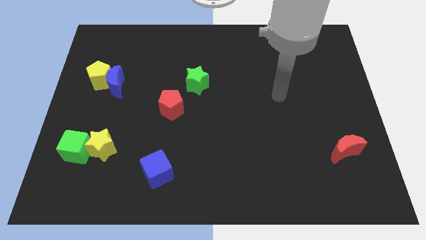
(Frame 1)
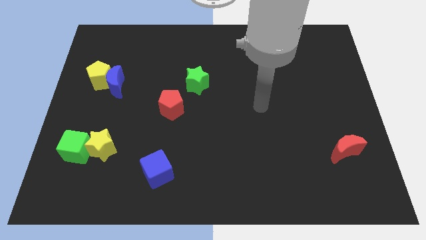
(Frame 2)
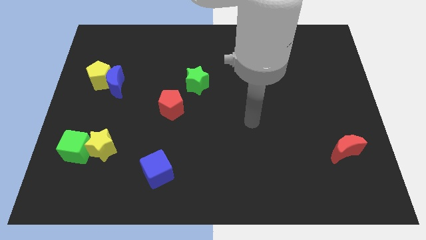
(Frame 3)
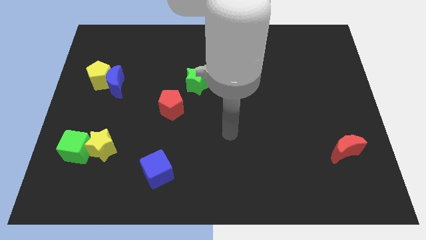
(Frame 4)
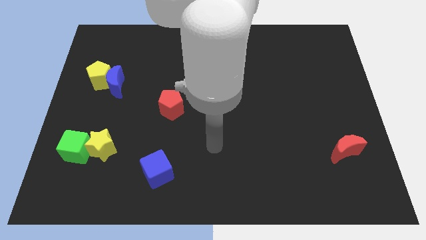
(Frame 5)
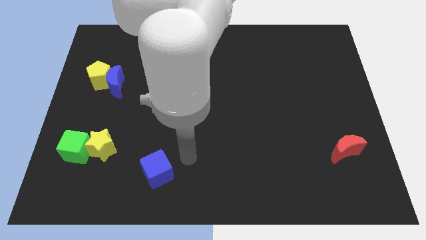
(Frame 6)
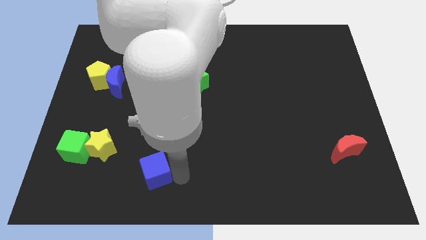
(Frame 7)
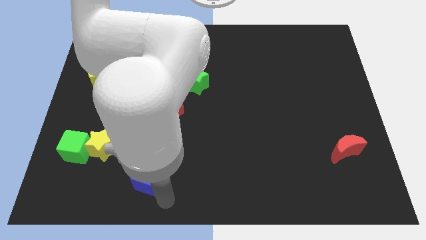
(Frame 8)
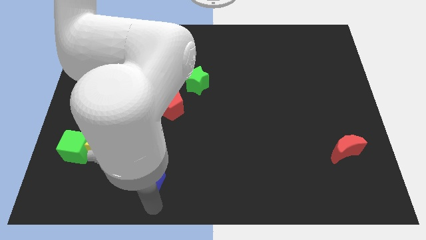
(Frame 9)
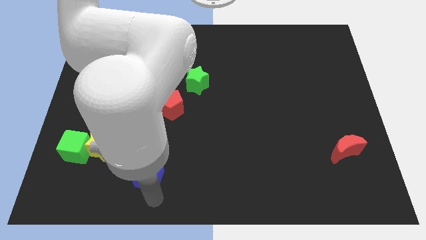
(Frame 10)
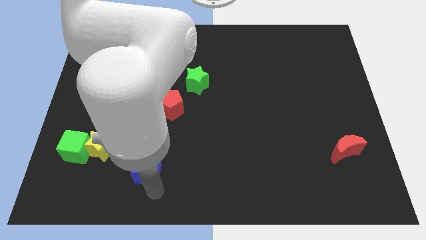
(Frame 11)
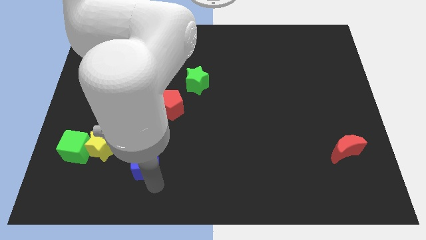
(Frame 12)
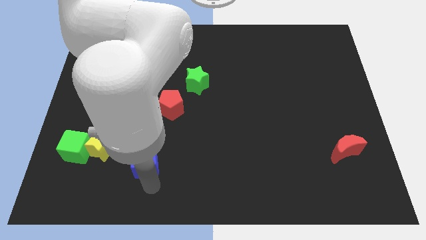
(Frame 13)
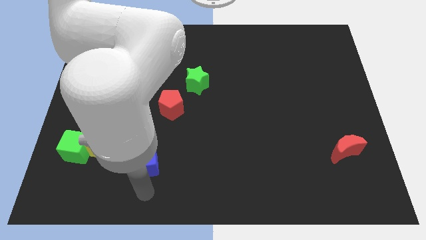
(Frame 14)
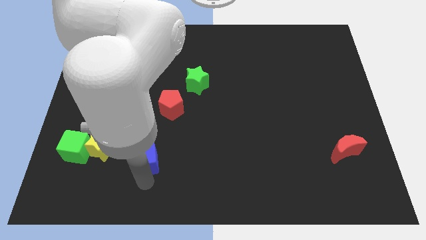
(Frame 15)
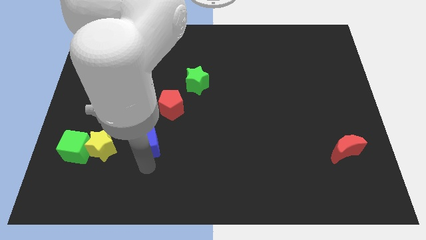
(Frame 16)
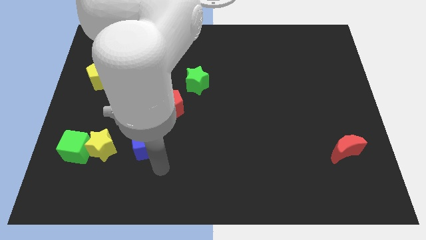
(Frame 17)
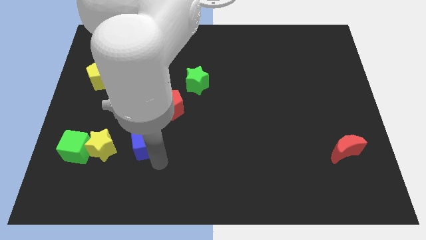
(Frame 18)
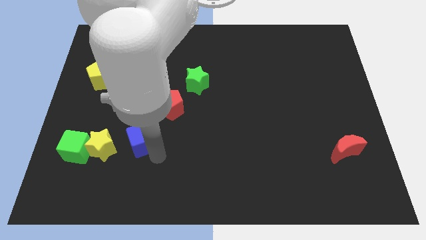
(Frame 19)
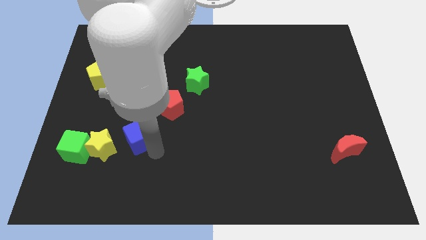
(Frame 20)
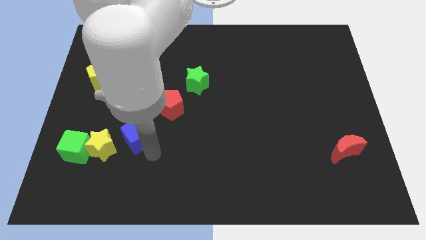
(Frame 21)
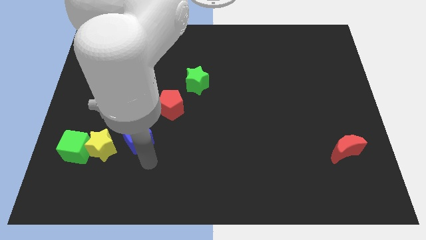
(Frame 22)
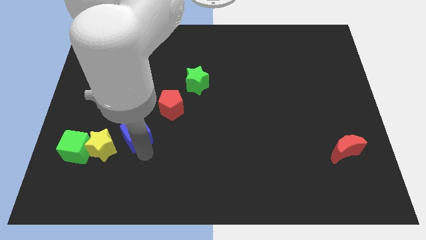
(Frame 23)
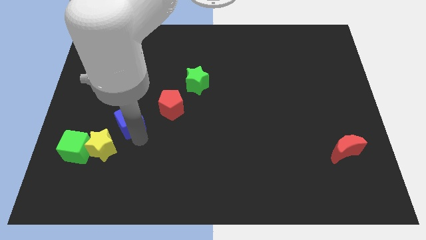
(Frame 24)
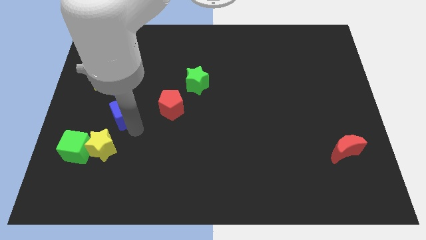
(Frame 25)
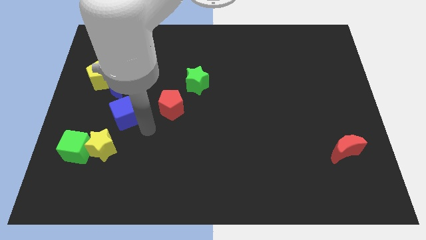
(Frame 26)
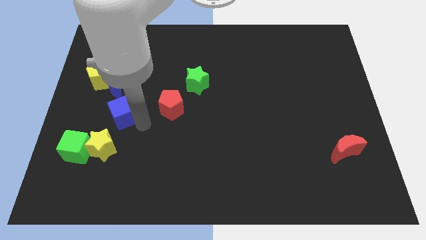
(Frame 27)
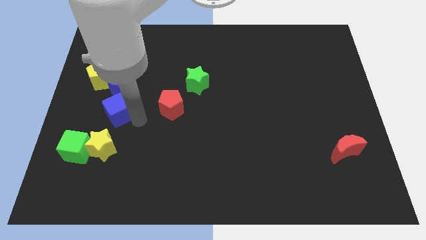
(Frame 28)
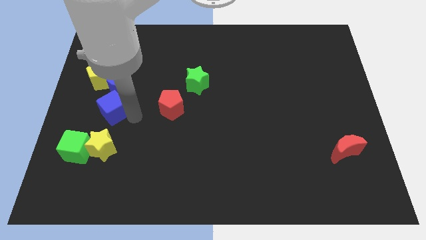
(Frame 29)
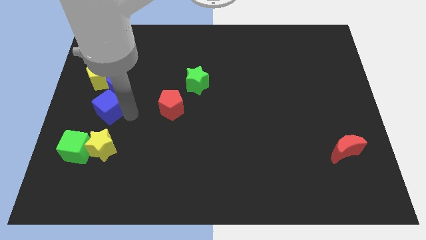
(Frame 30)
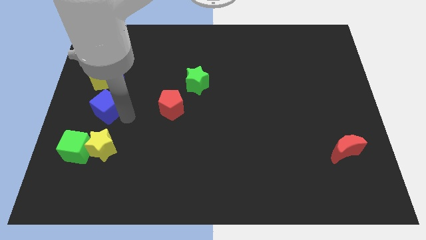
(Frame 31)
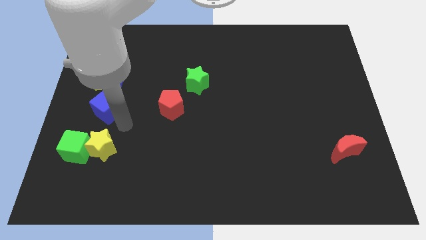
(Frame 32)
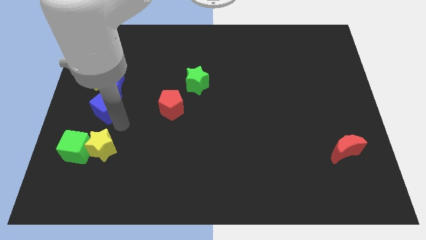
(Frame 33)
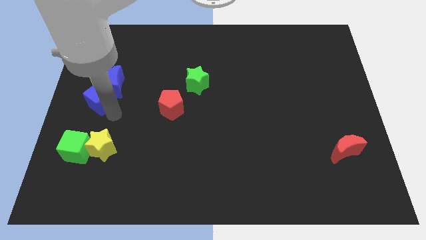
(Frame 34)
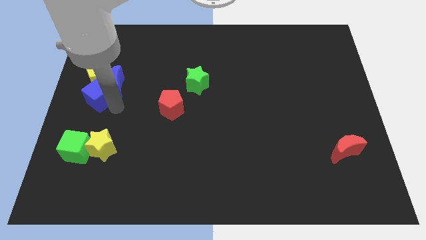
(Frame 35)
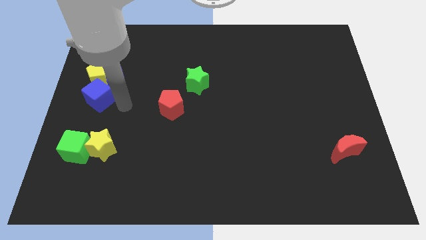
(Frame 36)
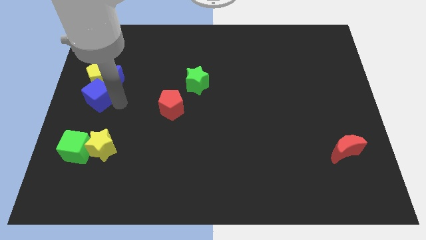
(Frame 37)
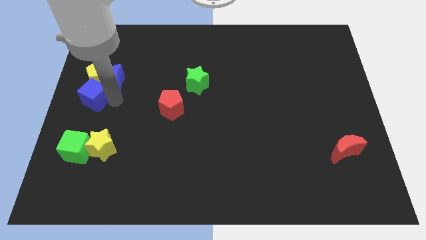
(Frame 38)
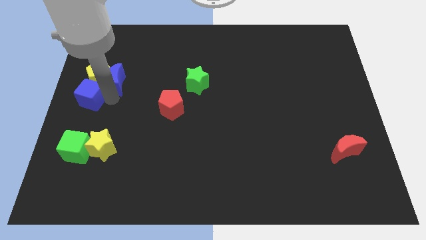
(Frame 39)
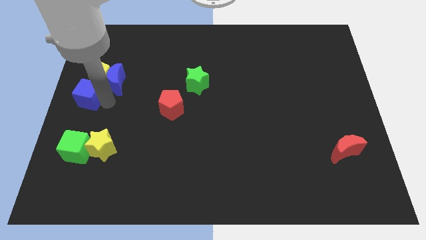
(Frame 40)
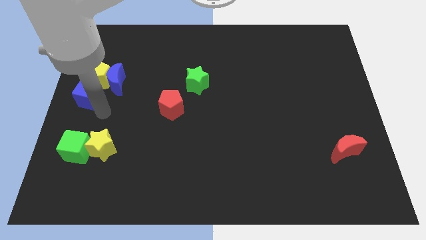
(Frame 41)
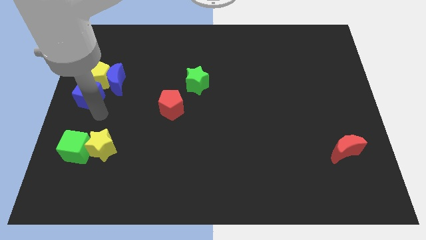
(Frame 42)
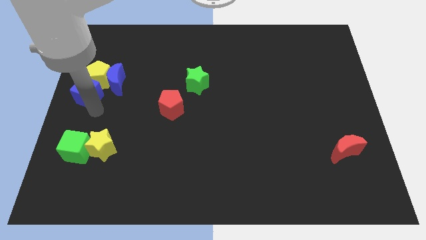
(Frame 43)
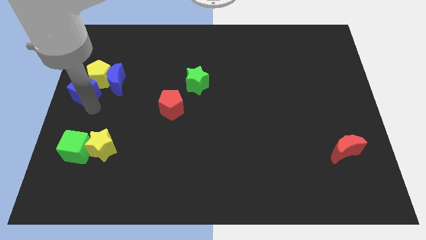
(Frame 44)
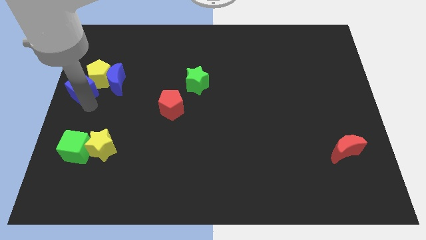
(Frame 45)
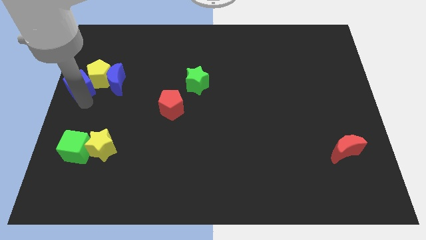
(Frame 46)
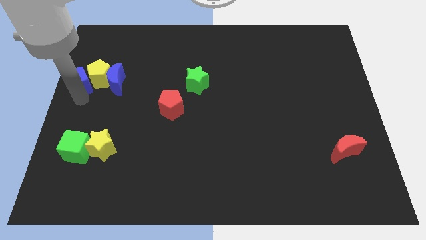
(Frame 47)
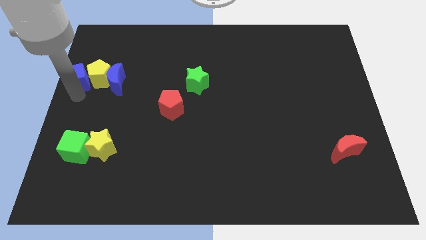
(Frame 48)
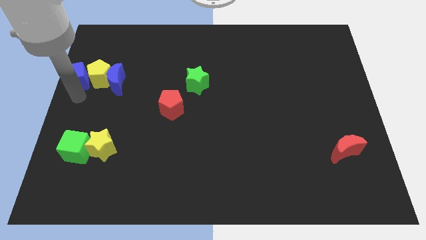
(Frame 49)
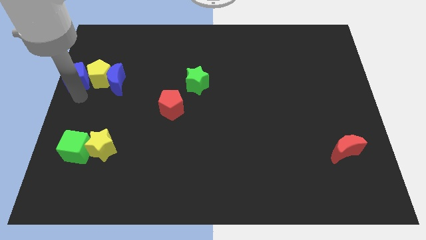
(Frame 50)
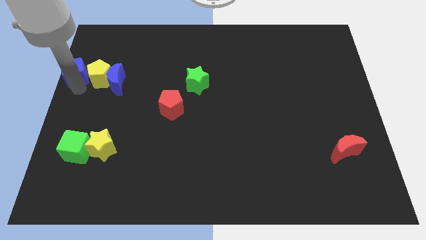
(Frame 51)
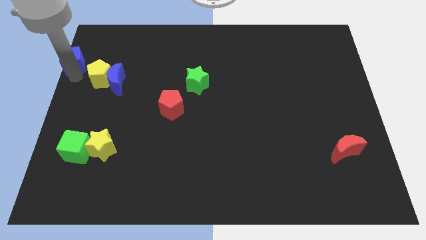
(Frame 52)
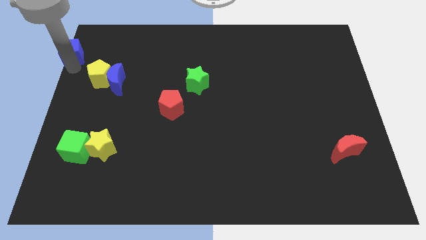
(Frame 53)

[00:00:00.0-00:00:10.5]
slide the blue cube to the top left corner

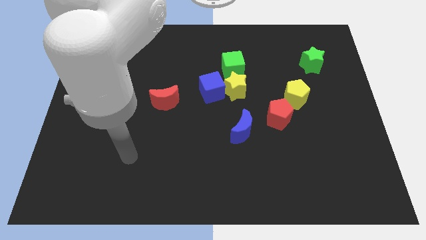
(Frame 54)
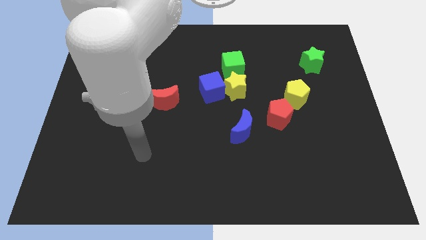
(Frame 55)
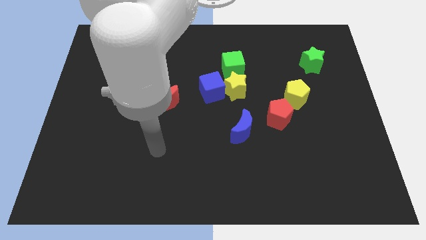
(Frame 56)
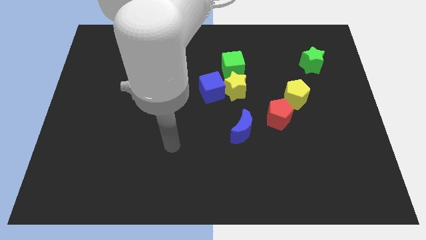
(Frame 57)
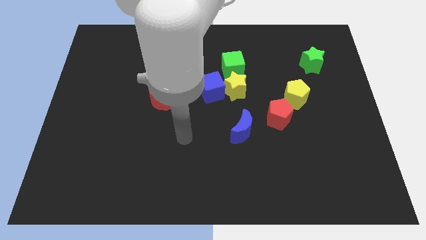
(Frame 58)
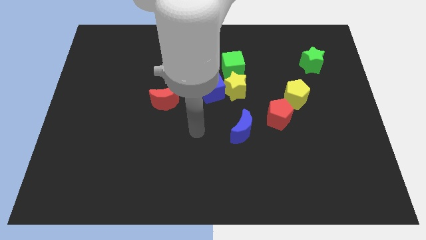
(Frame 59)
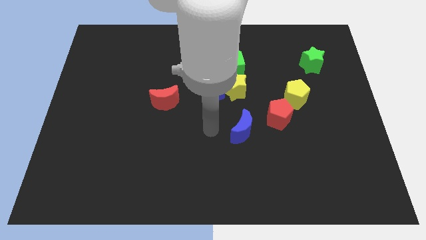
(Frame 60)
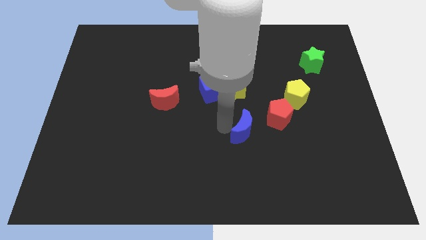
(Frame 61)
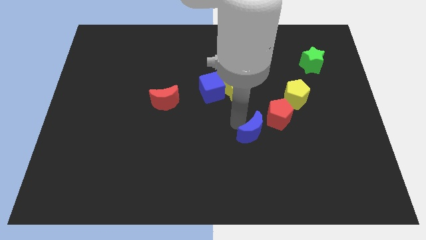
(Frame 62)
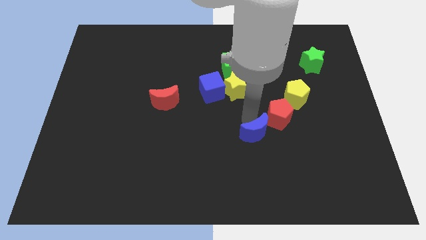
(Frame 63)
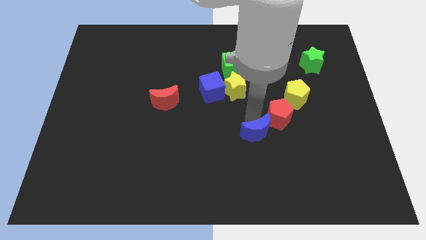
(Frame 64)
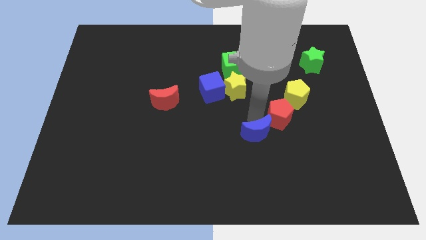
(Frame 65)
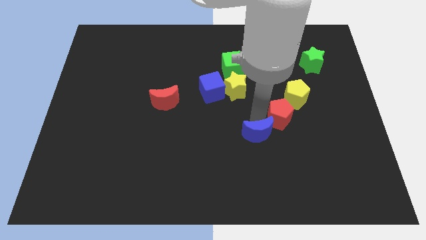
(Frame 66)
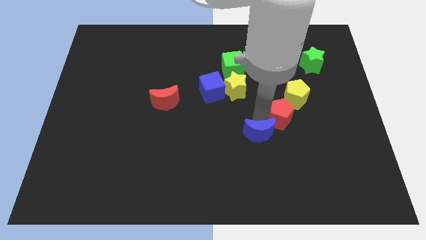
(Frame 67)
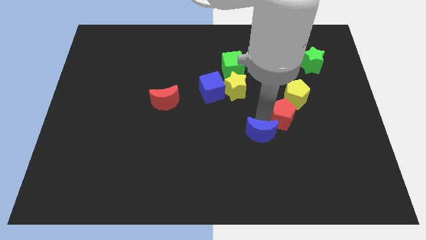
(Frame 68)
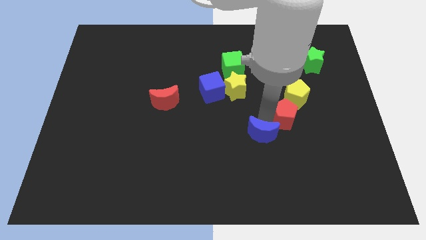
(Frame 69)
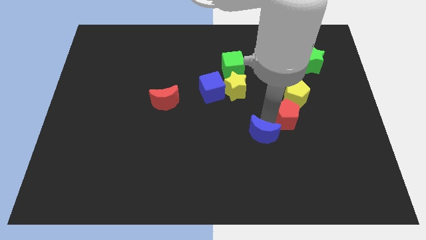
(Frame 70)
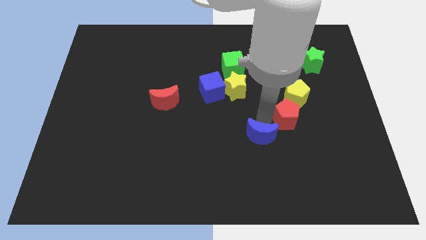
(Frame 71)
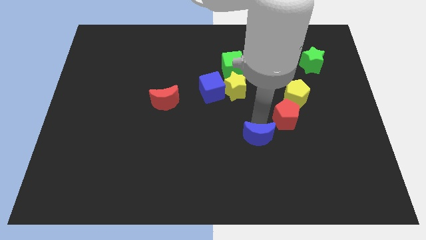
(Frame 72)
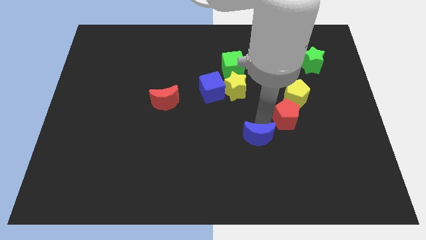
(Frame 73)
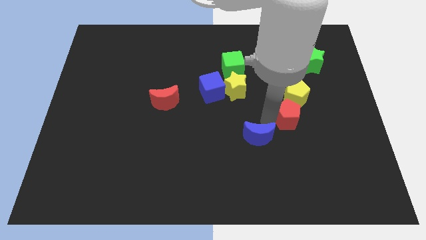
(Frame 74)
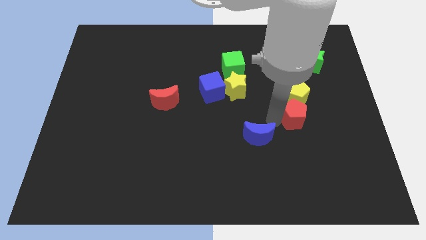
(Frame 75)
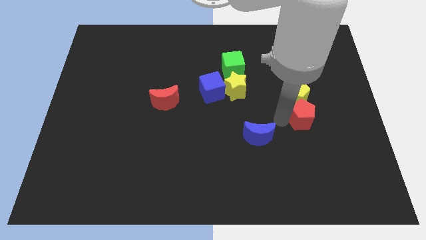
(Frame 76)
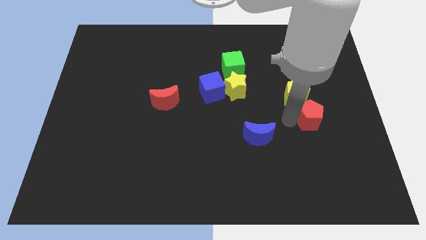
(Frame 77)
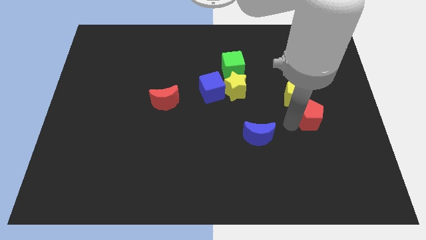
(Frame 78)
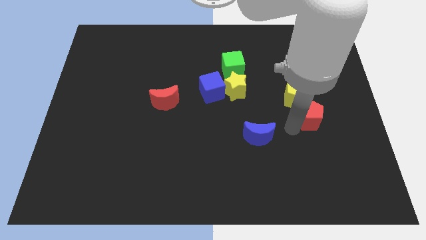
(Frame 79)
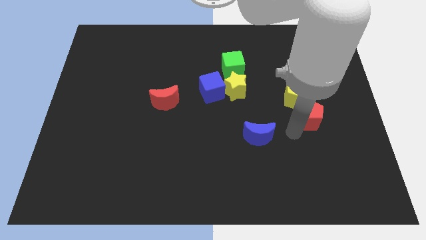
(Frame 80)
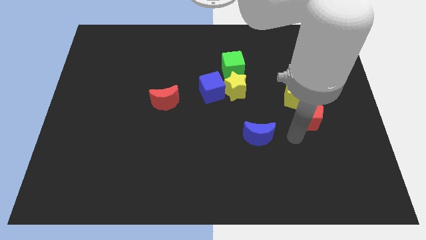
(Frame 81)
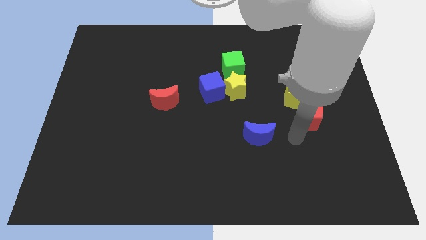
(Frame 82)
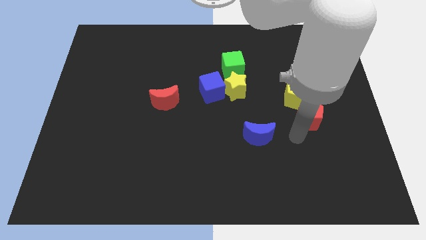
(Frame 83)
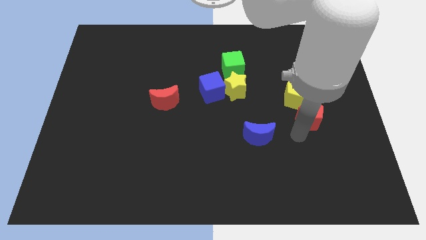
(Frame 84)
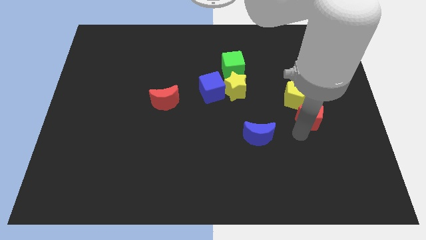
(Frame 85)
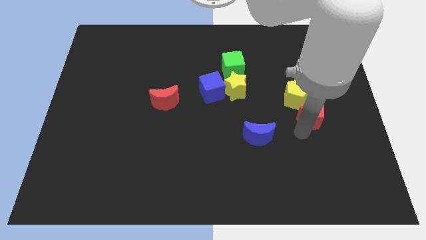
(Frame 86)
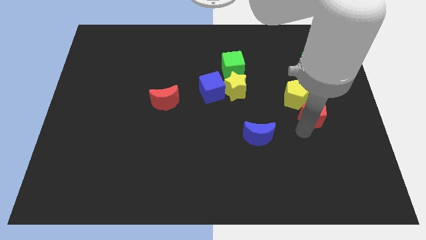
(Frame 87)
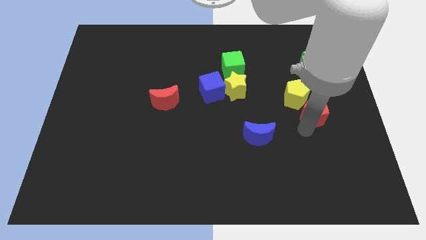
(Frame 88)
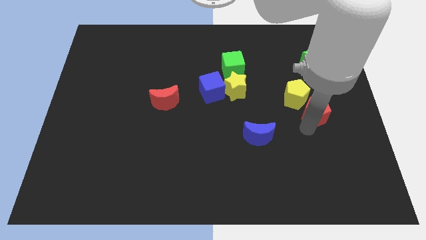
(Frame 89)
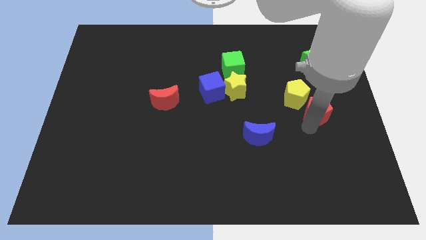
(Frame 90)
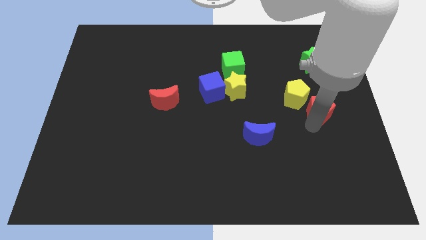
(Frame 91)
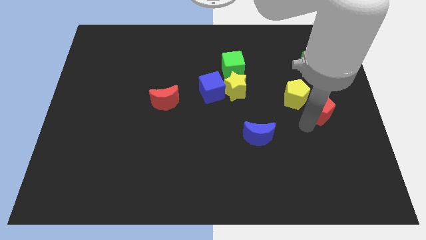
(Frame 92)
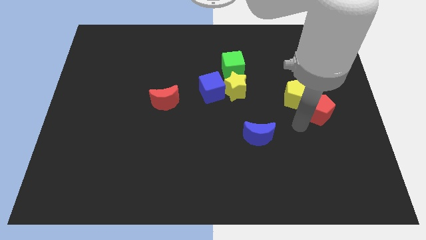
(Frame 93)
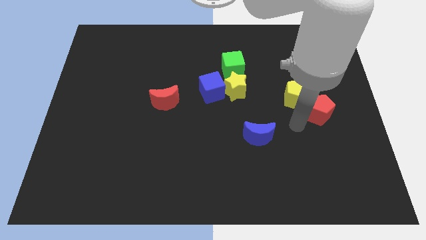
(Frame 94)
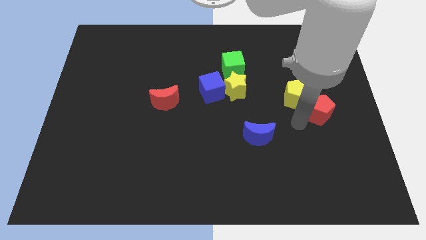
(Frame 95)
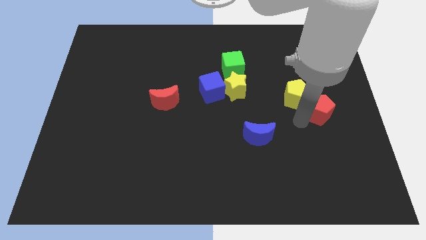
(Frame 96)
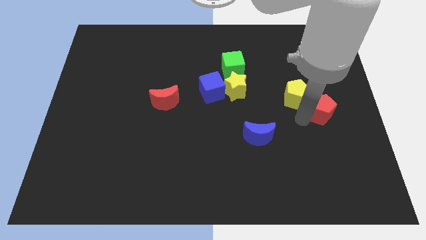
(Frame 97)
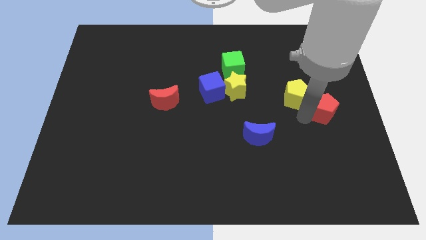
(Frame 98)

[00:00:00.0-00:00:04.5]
put the red pentagon to the center right
